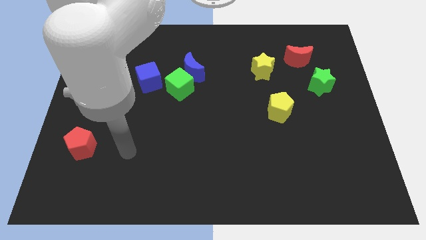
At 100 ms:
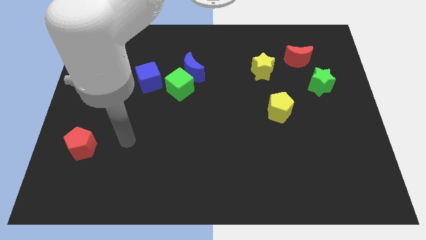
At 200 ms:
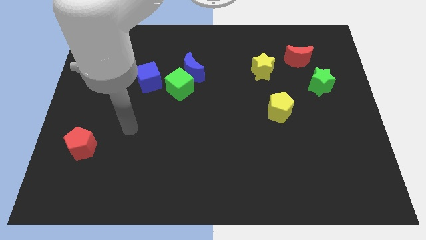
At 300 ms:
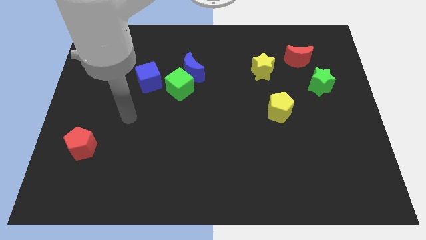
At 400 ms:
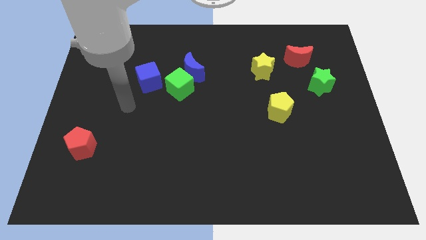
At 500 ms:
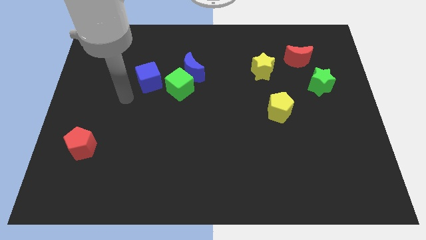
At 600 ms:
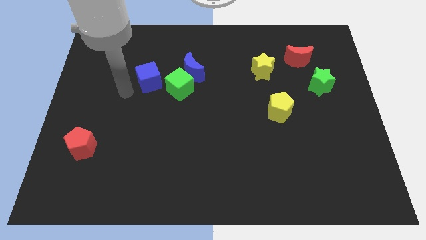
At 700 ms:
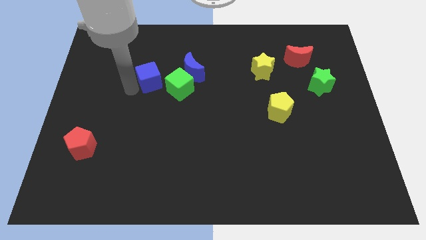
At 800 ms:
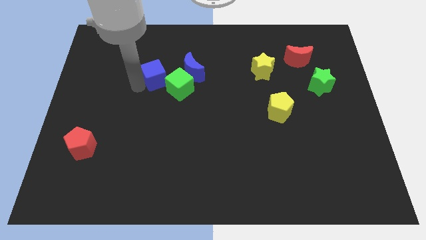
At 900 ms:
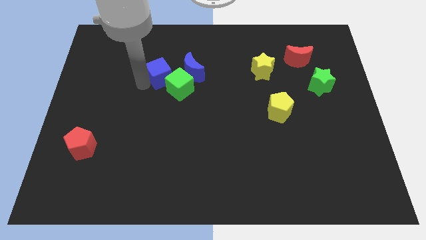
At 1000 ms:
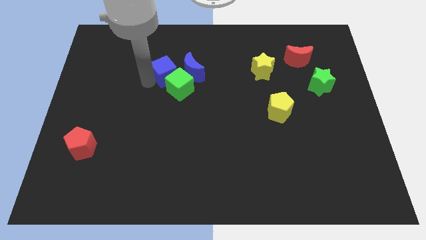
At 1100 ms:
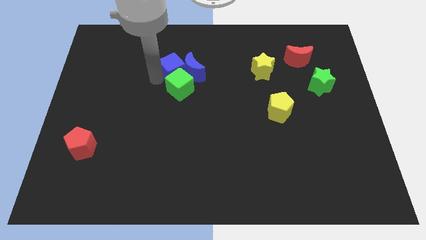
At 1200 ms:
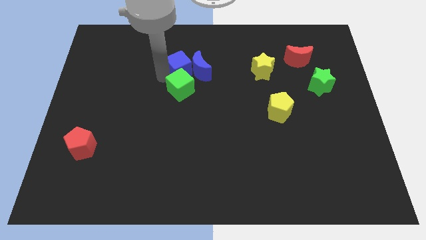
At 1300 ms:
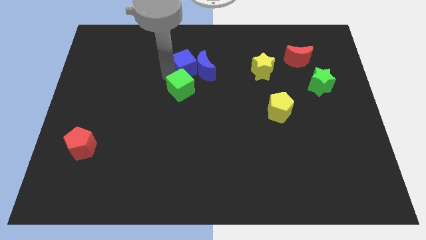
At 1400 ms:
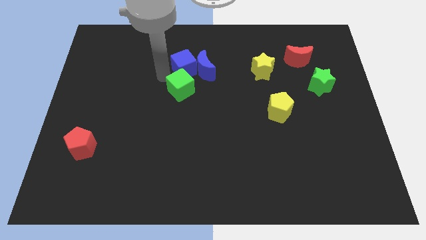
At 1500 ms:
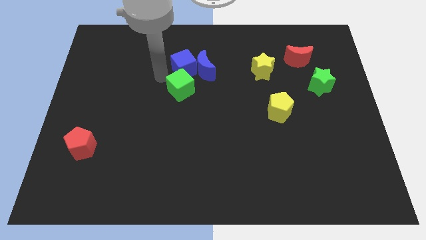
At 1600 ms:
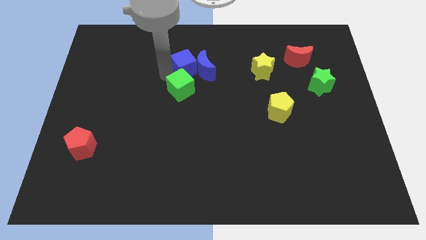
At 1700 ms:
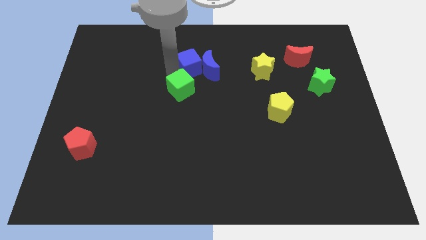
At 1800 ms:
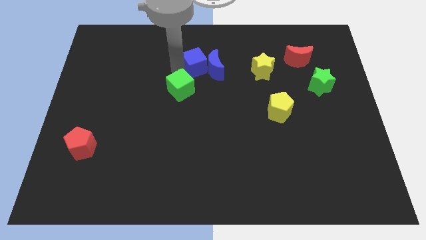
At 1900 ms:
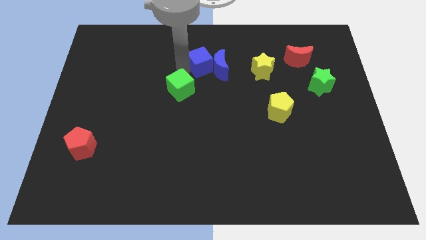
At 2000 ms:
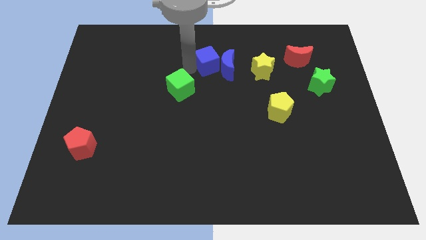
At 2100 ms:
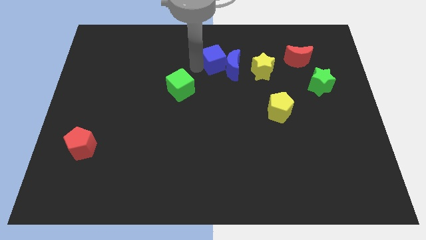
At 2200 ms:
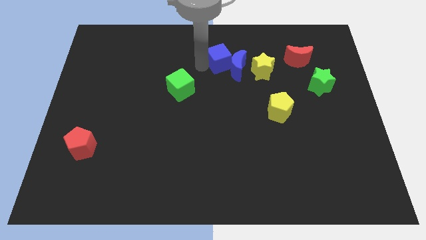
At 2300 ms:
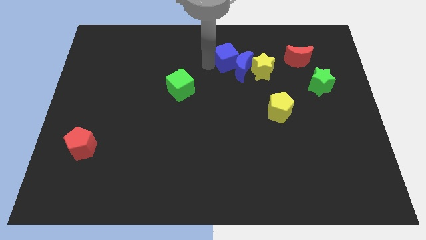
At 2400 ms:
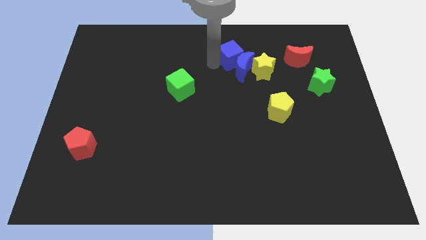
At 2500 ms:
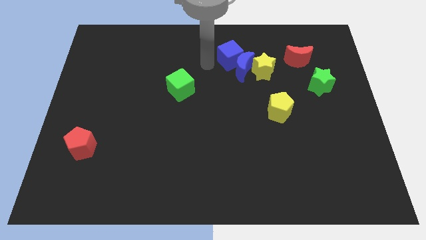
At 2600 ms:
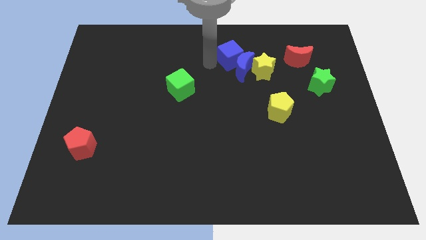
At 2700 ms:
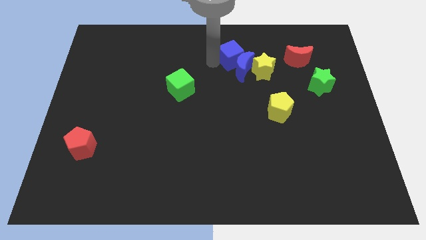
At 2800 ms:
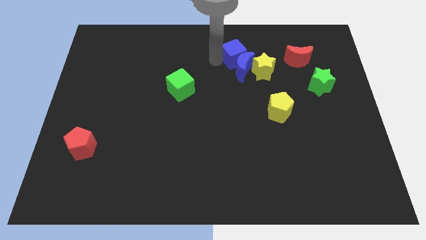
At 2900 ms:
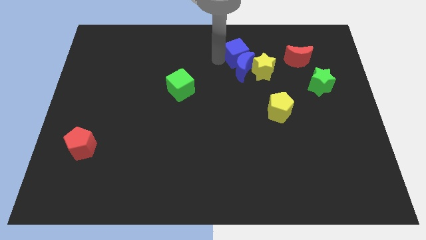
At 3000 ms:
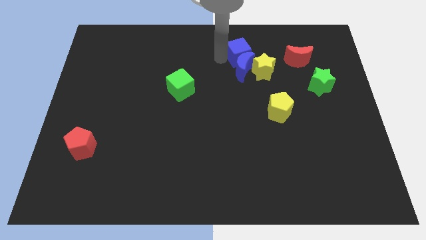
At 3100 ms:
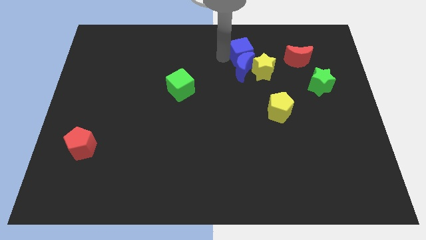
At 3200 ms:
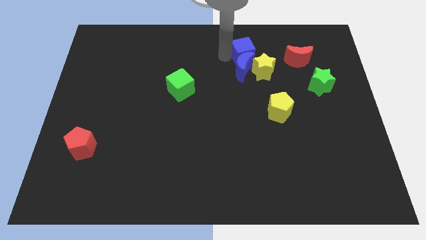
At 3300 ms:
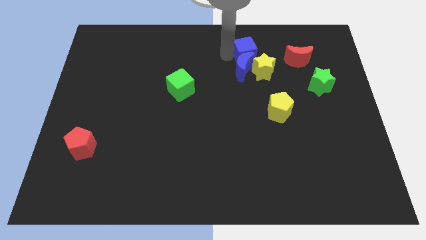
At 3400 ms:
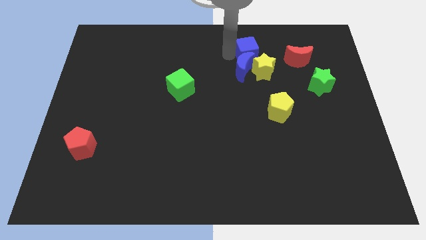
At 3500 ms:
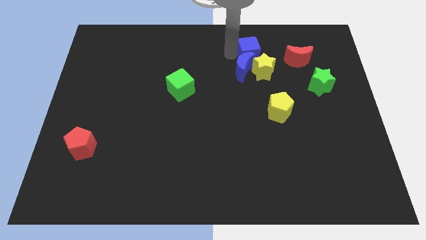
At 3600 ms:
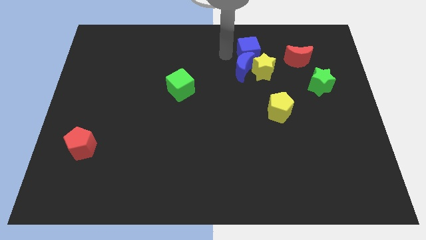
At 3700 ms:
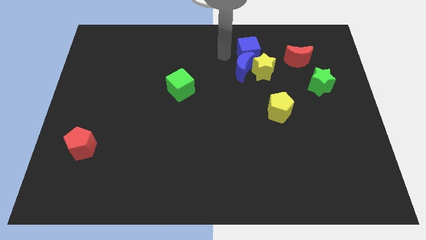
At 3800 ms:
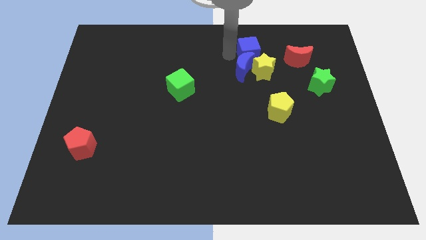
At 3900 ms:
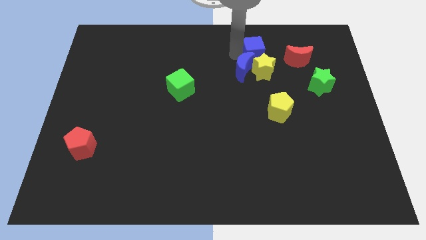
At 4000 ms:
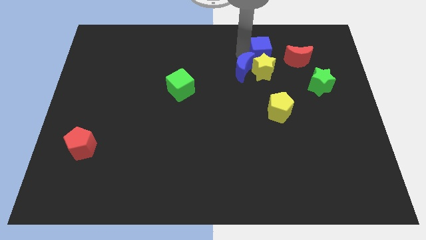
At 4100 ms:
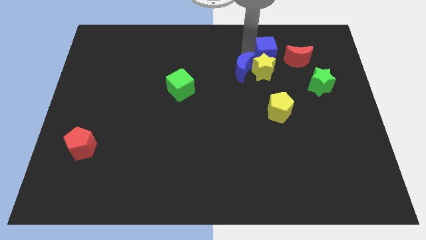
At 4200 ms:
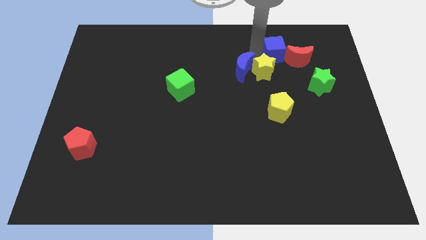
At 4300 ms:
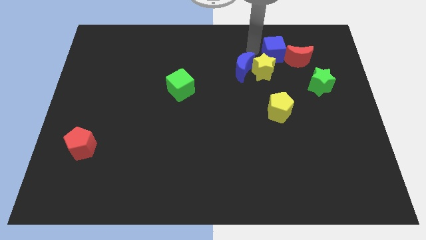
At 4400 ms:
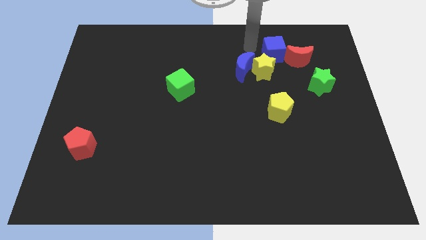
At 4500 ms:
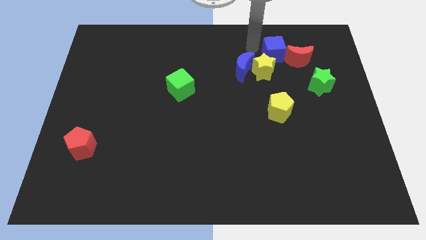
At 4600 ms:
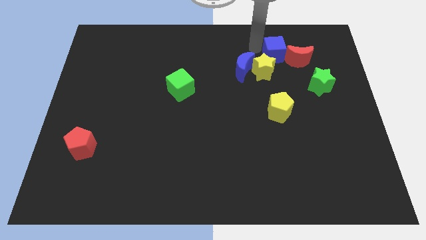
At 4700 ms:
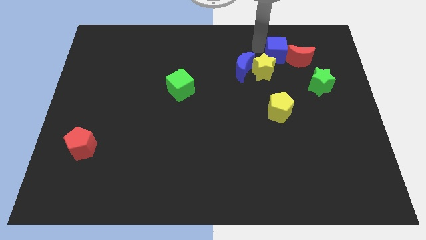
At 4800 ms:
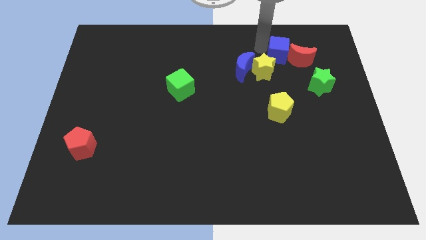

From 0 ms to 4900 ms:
move the blue cube to the red moon

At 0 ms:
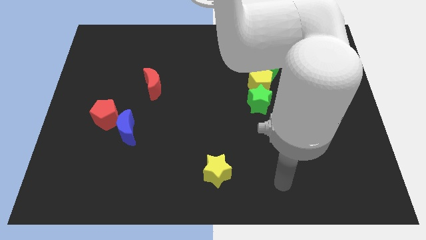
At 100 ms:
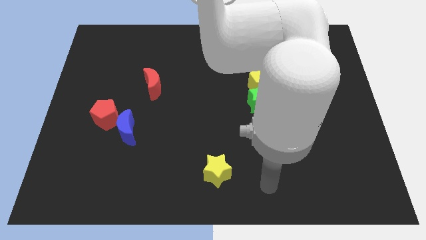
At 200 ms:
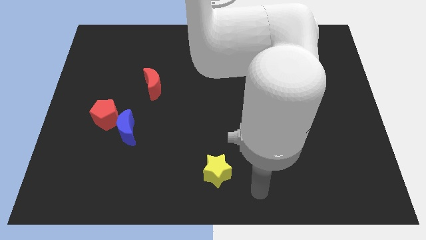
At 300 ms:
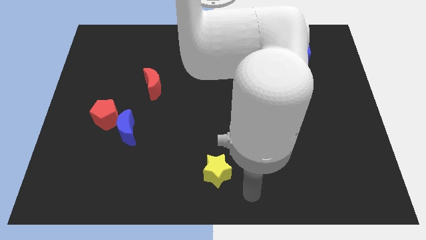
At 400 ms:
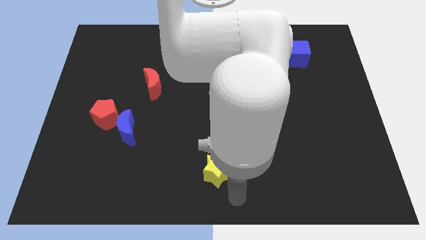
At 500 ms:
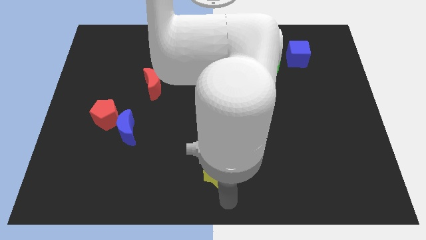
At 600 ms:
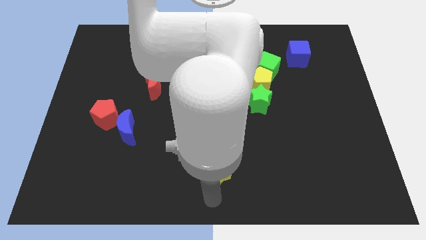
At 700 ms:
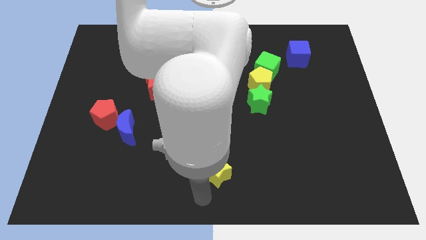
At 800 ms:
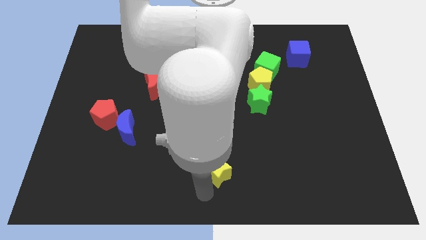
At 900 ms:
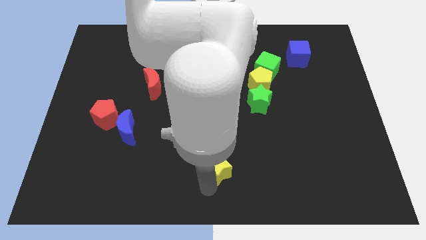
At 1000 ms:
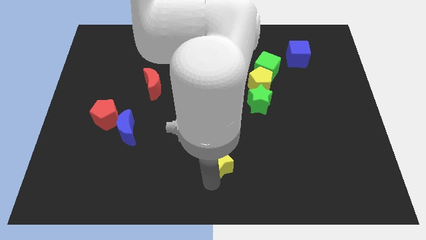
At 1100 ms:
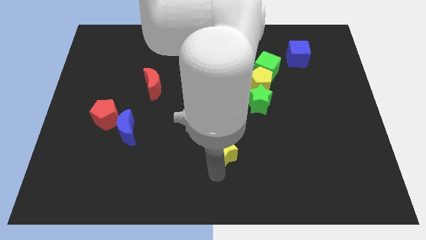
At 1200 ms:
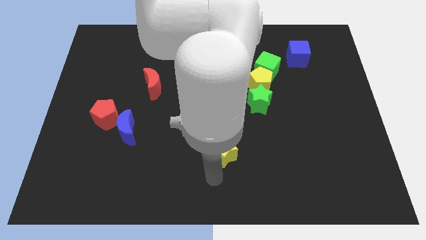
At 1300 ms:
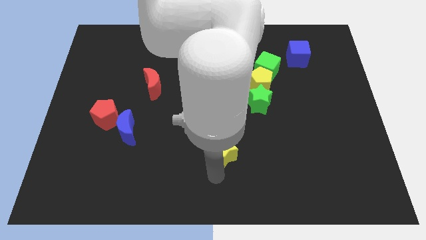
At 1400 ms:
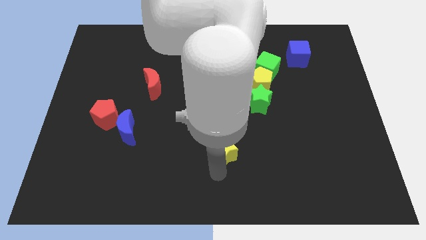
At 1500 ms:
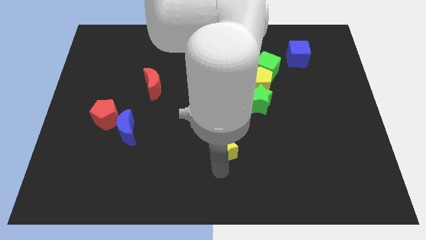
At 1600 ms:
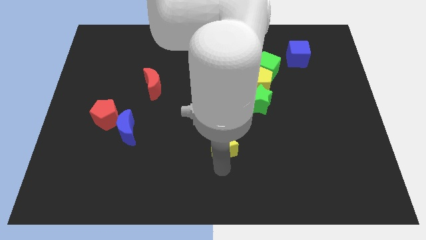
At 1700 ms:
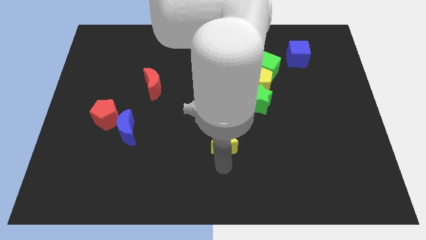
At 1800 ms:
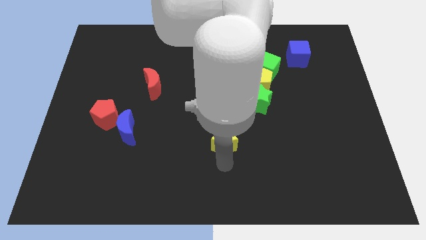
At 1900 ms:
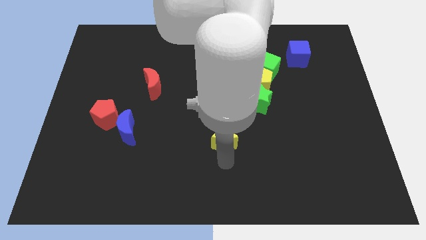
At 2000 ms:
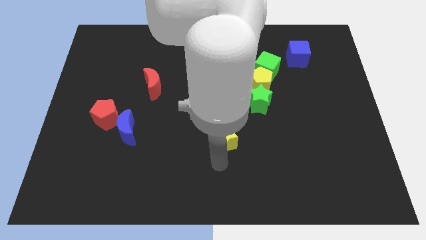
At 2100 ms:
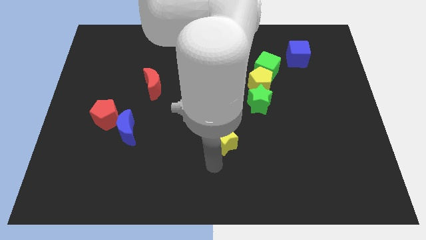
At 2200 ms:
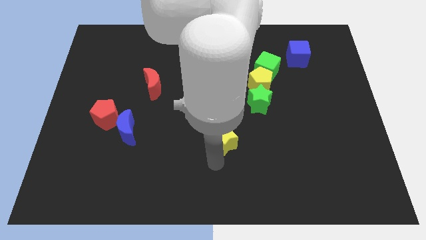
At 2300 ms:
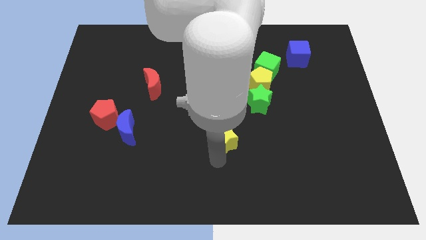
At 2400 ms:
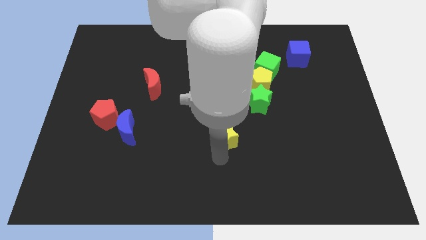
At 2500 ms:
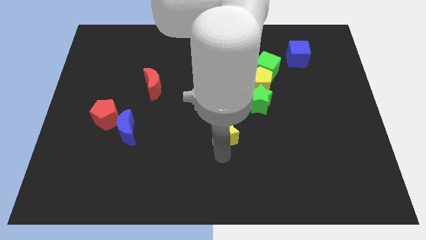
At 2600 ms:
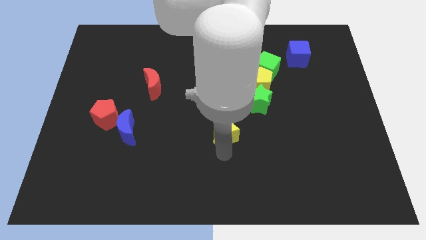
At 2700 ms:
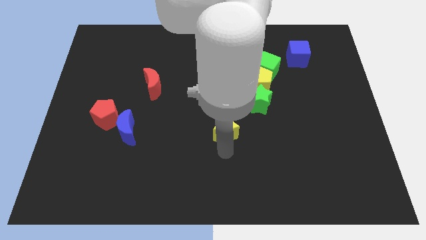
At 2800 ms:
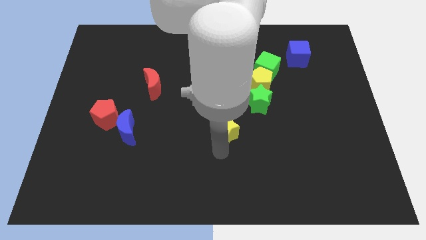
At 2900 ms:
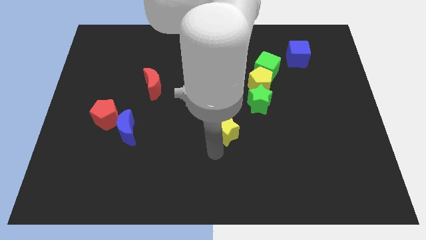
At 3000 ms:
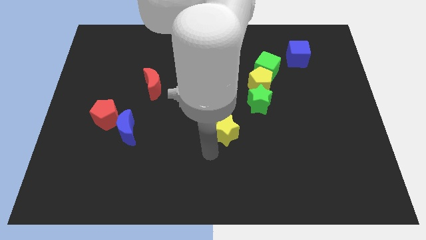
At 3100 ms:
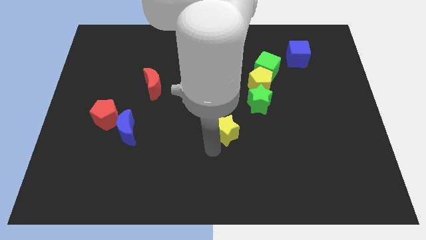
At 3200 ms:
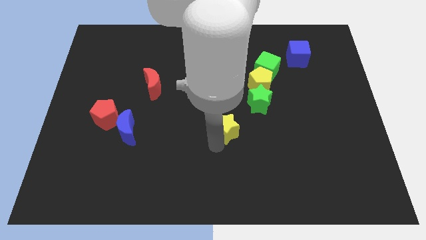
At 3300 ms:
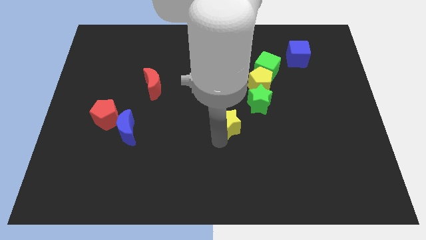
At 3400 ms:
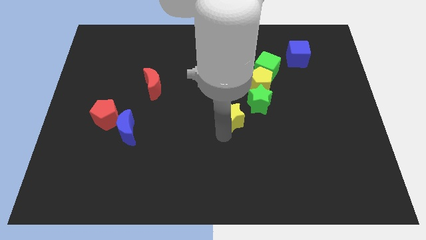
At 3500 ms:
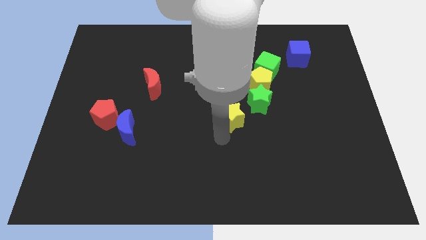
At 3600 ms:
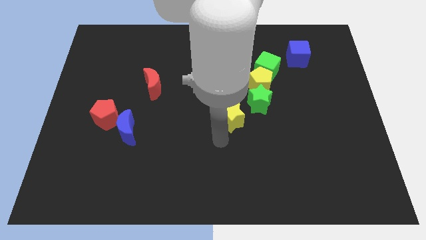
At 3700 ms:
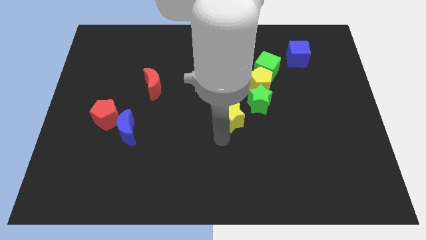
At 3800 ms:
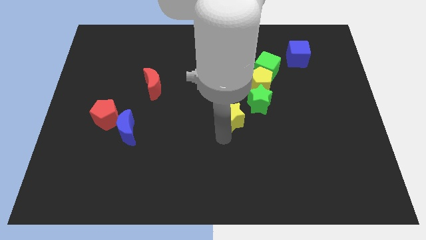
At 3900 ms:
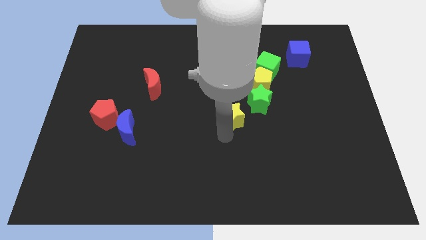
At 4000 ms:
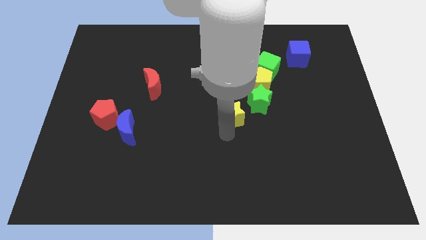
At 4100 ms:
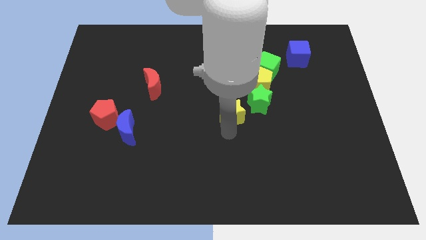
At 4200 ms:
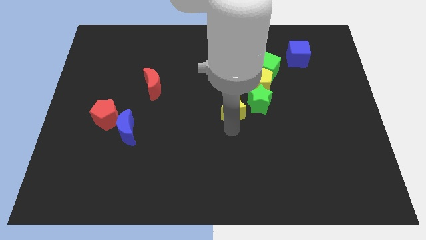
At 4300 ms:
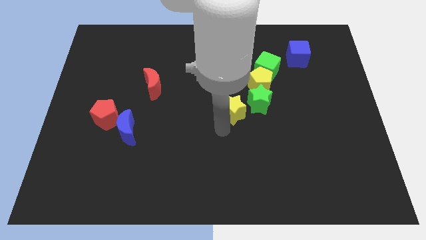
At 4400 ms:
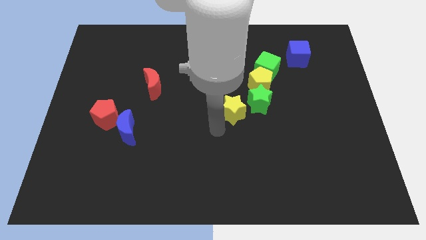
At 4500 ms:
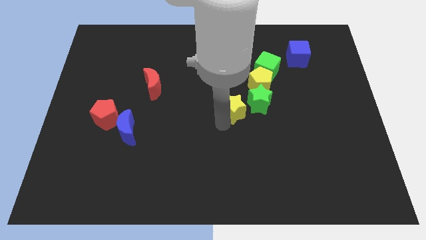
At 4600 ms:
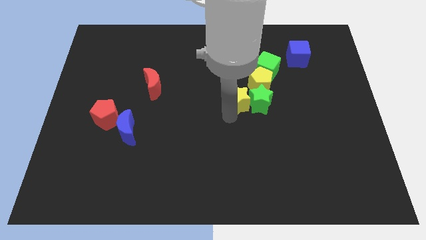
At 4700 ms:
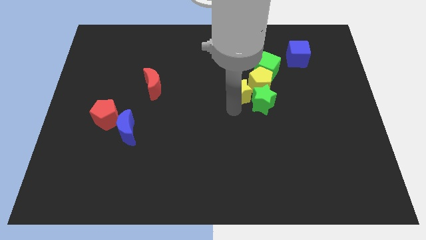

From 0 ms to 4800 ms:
move the yellow star next to the yellow pentagon
